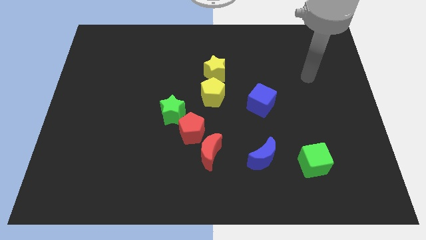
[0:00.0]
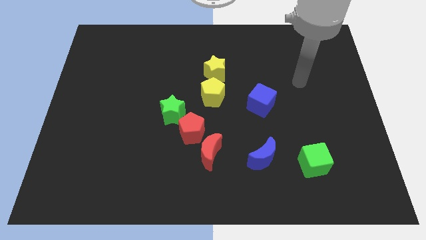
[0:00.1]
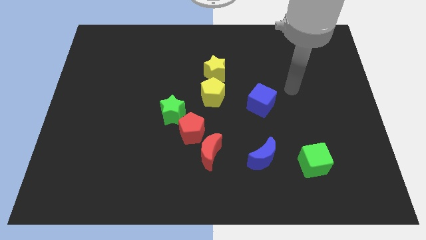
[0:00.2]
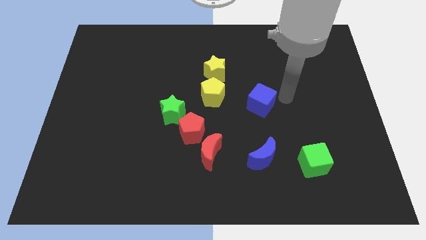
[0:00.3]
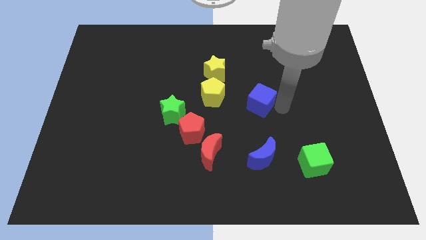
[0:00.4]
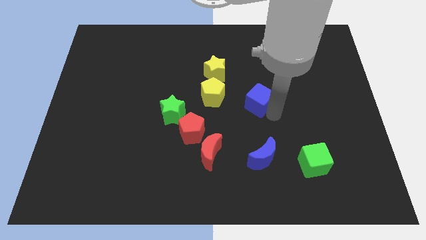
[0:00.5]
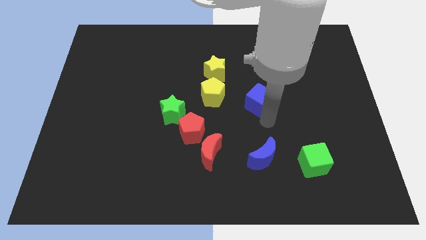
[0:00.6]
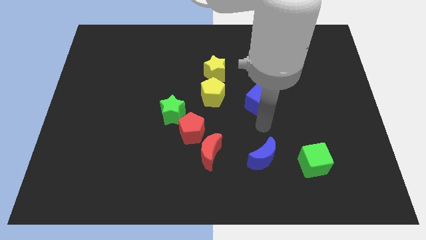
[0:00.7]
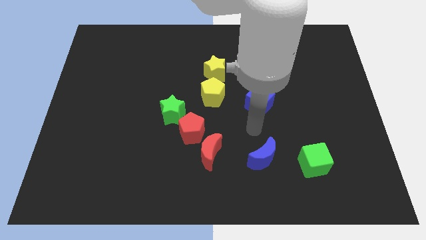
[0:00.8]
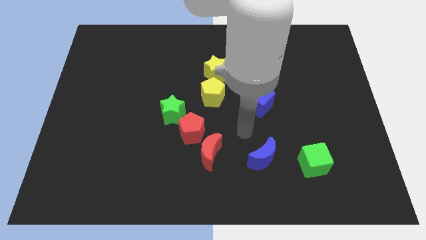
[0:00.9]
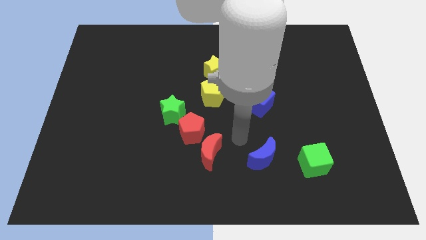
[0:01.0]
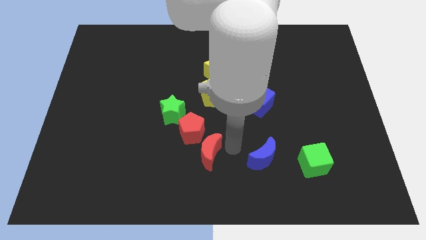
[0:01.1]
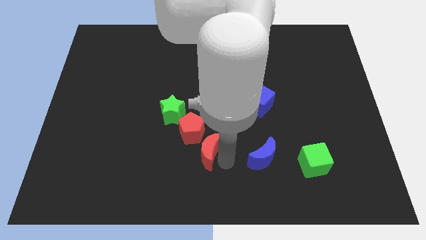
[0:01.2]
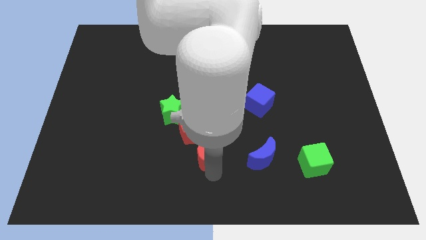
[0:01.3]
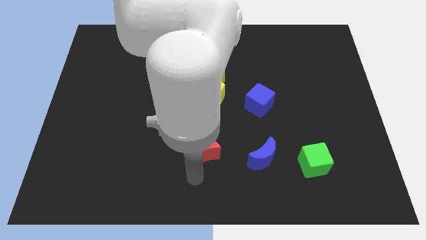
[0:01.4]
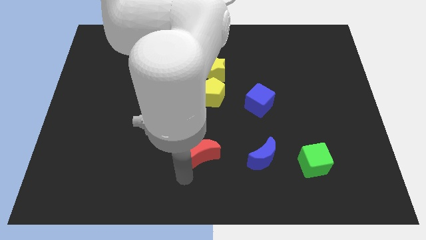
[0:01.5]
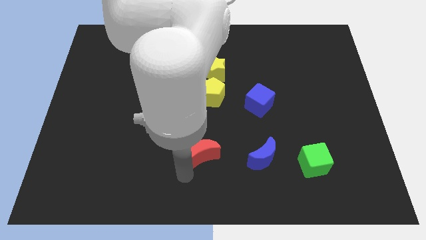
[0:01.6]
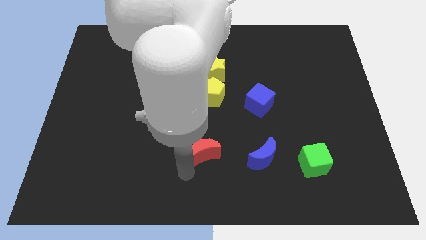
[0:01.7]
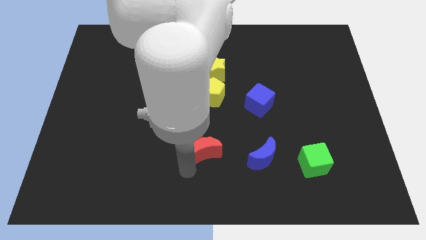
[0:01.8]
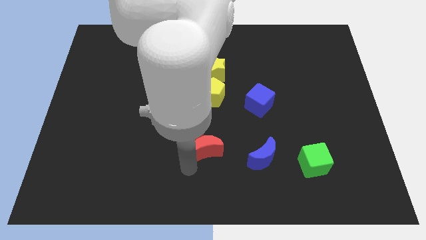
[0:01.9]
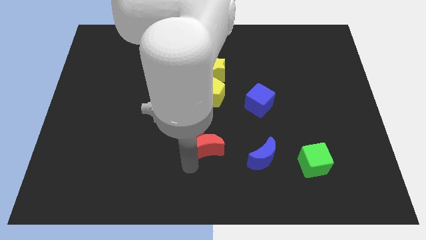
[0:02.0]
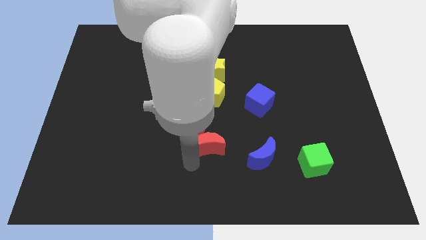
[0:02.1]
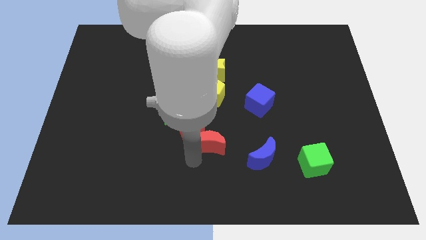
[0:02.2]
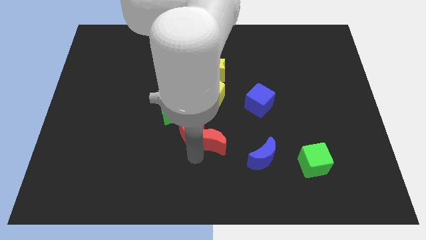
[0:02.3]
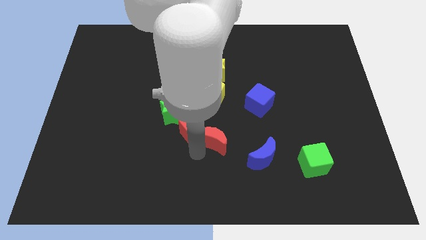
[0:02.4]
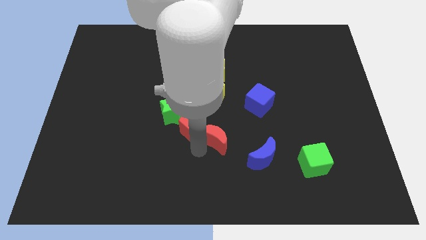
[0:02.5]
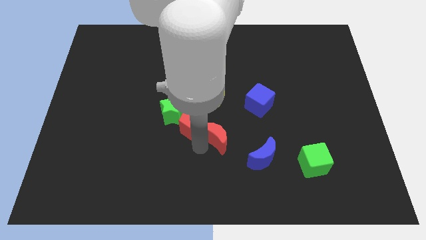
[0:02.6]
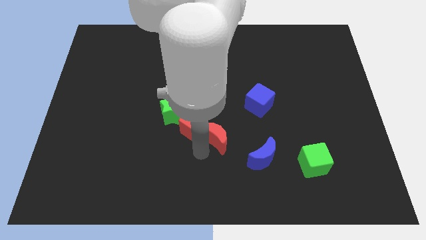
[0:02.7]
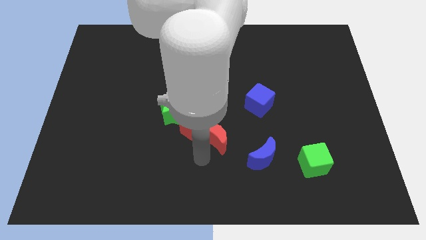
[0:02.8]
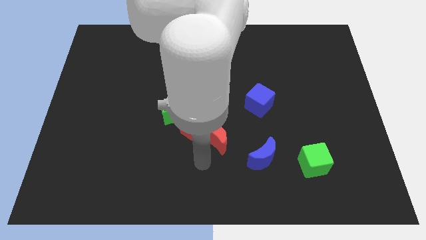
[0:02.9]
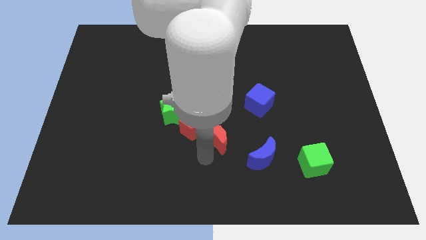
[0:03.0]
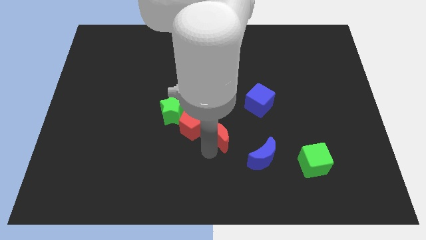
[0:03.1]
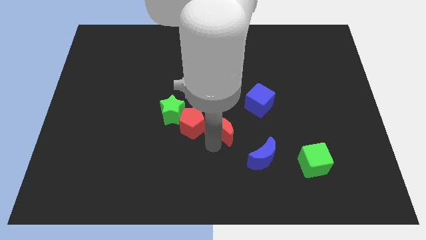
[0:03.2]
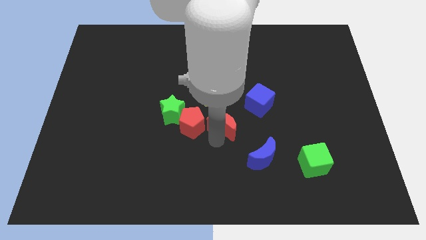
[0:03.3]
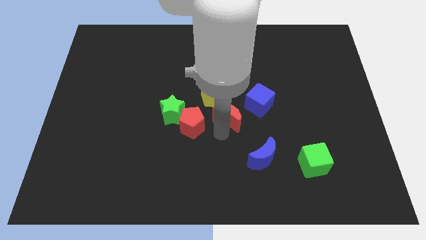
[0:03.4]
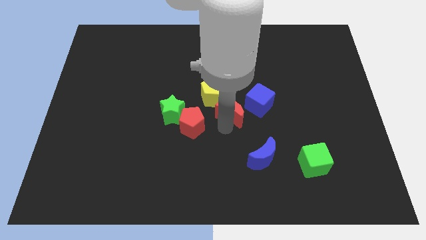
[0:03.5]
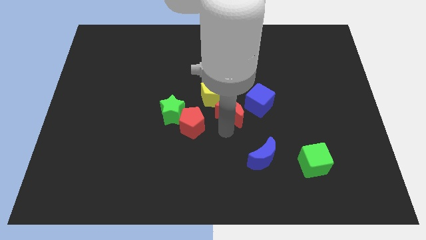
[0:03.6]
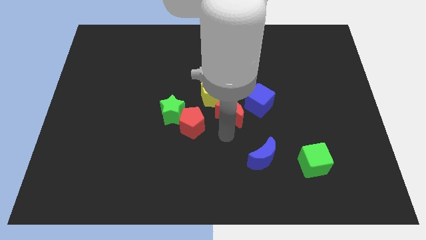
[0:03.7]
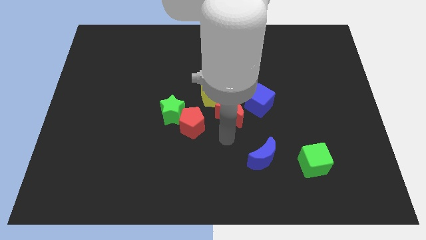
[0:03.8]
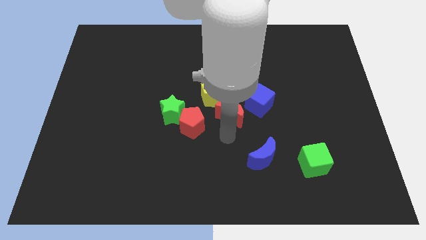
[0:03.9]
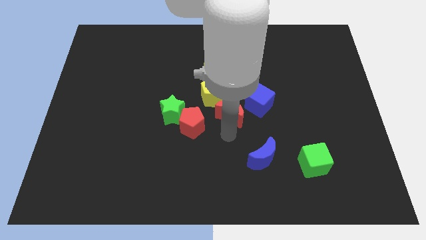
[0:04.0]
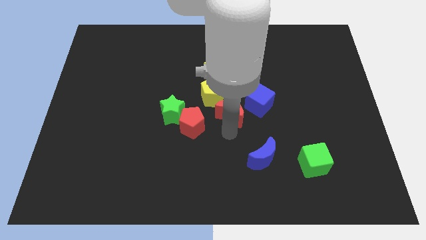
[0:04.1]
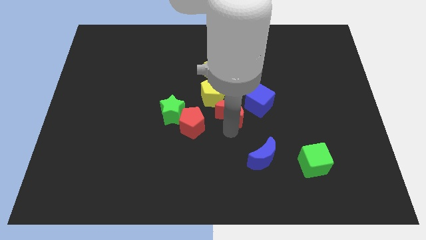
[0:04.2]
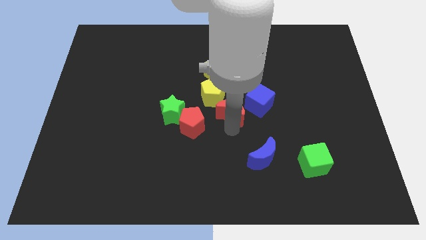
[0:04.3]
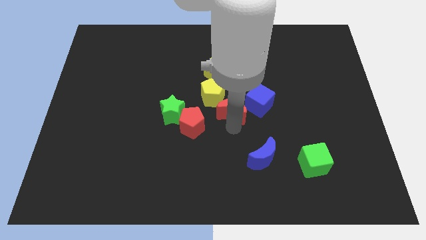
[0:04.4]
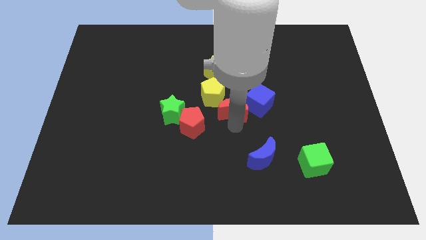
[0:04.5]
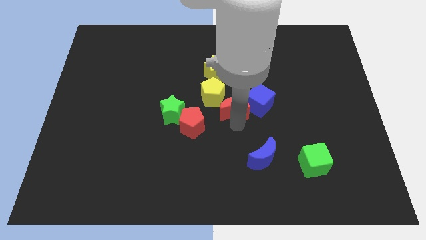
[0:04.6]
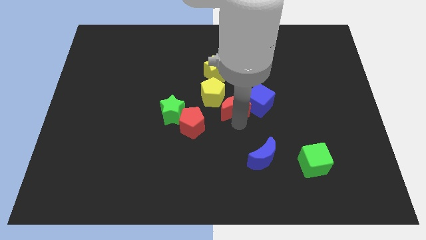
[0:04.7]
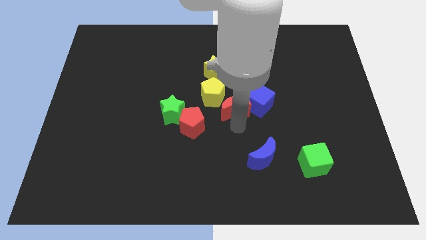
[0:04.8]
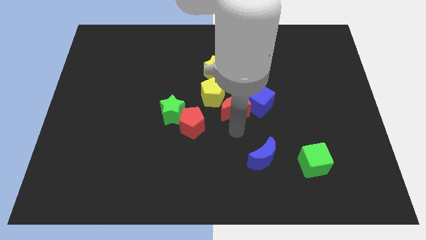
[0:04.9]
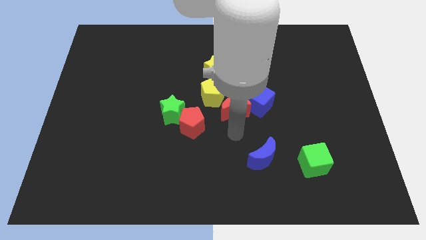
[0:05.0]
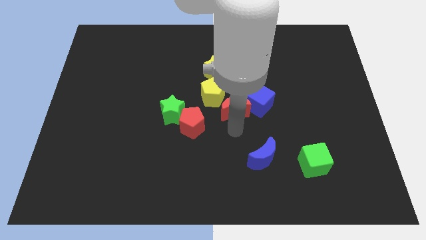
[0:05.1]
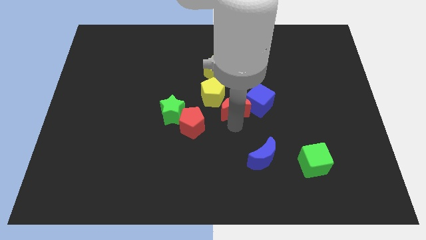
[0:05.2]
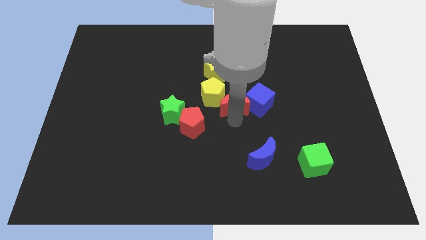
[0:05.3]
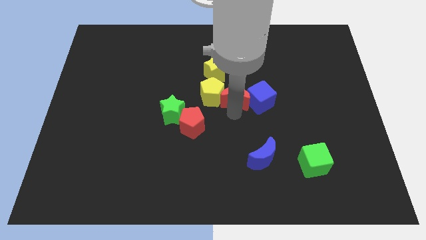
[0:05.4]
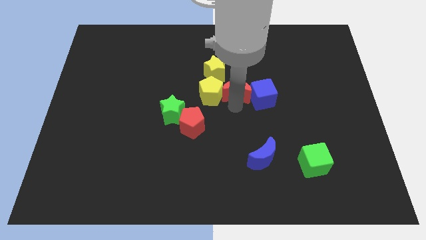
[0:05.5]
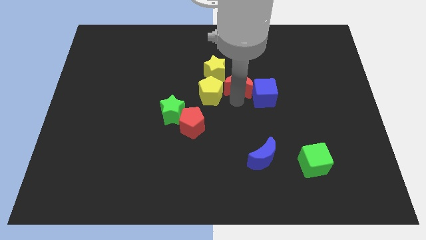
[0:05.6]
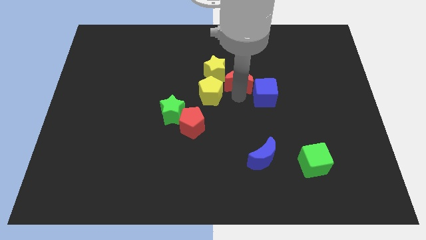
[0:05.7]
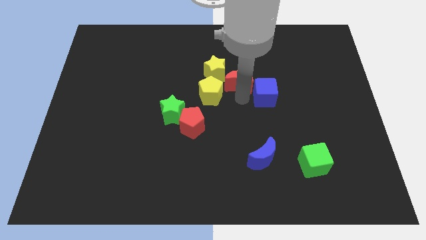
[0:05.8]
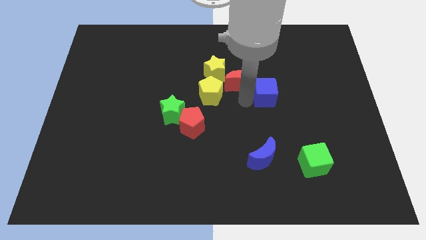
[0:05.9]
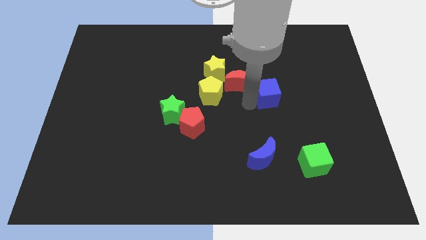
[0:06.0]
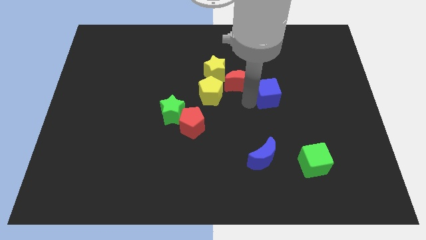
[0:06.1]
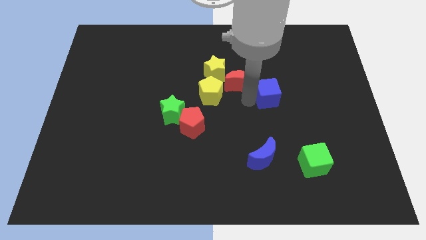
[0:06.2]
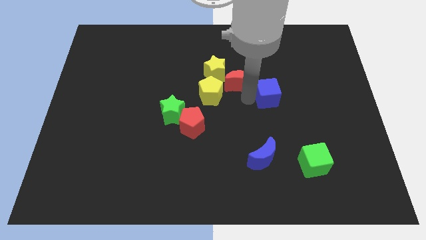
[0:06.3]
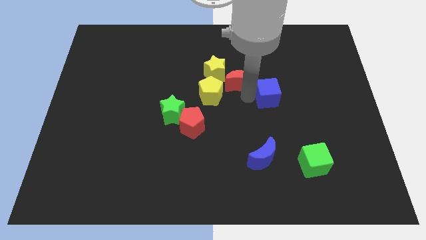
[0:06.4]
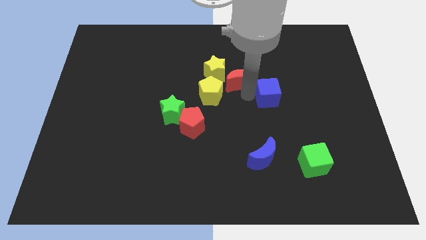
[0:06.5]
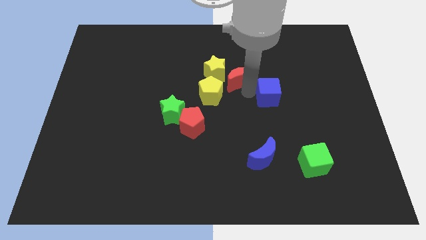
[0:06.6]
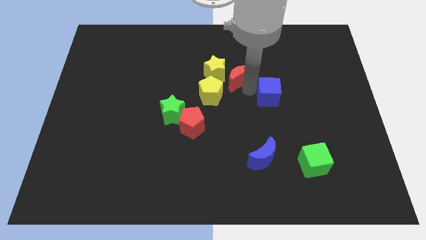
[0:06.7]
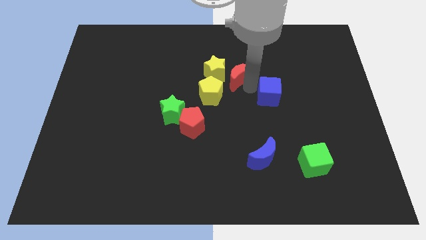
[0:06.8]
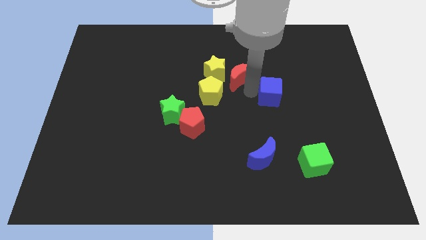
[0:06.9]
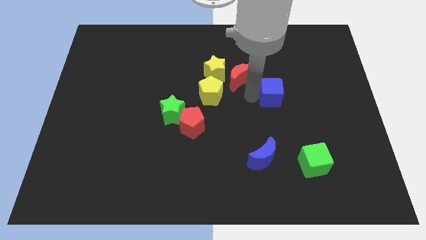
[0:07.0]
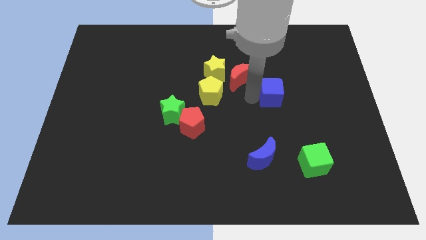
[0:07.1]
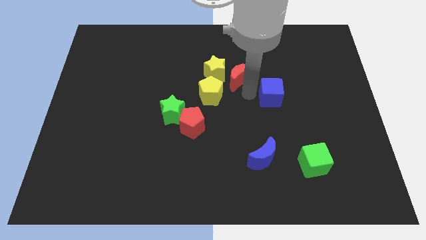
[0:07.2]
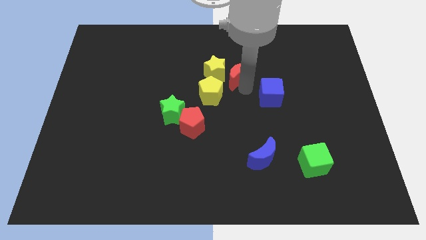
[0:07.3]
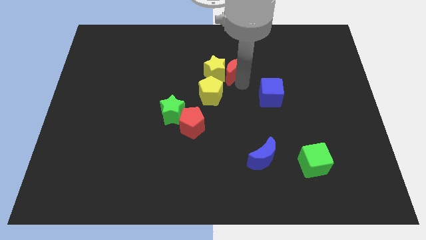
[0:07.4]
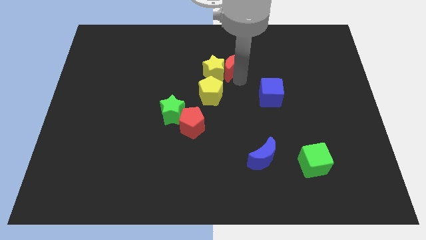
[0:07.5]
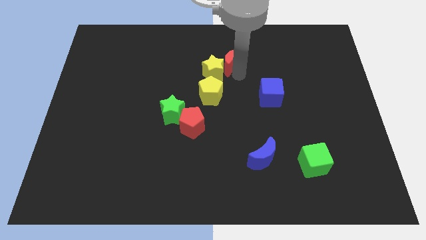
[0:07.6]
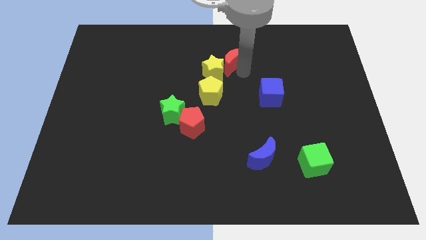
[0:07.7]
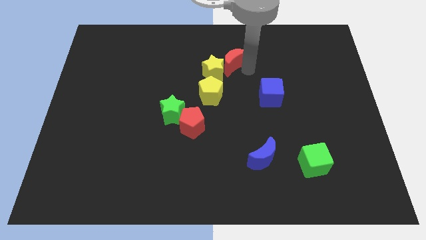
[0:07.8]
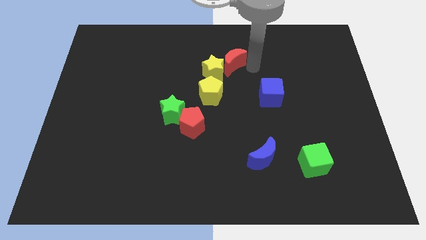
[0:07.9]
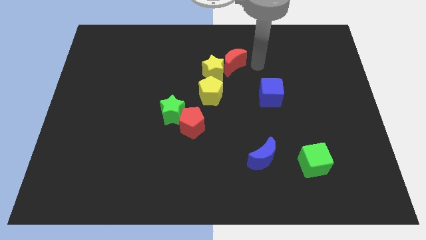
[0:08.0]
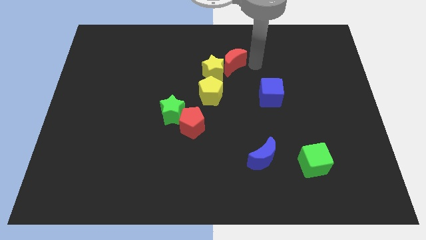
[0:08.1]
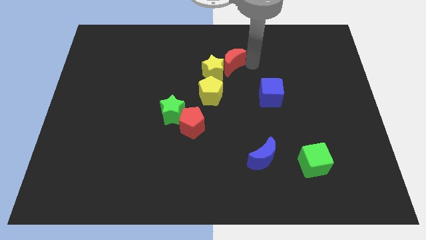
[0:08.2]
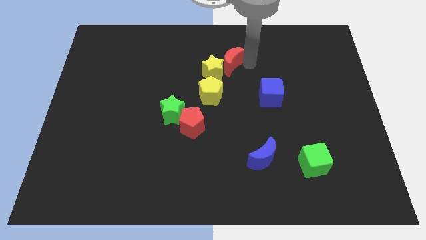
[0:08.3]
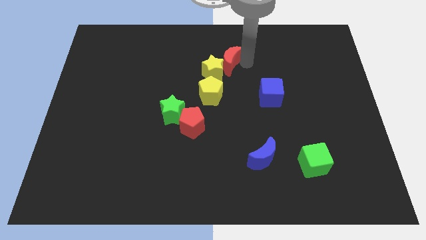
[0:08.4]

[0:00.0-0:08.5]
put the red moon above the yellow pentagon
